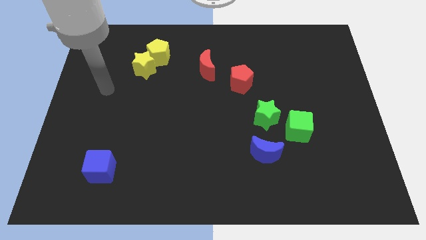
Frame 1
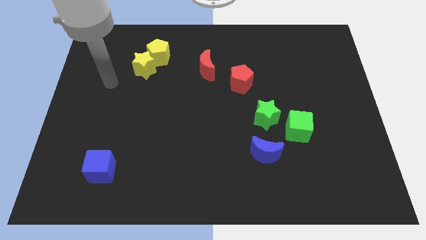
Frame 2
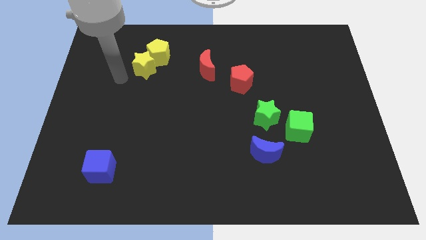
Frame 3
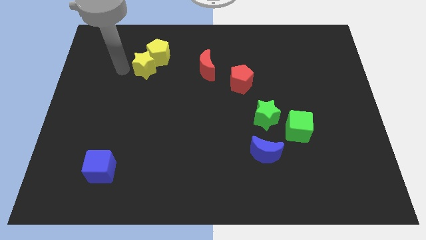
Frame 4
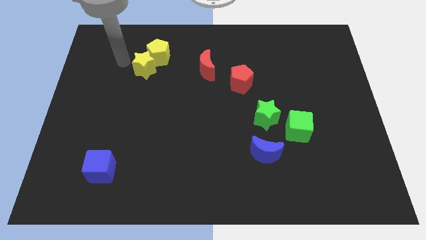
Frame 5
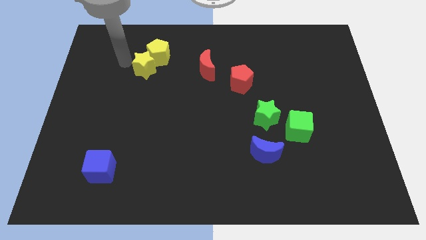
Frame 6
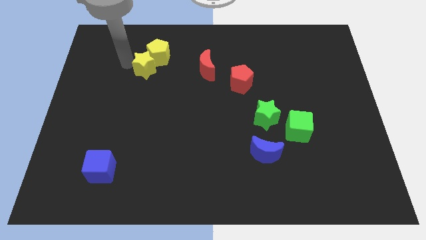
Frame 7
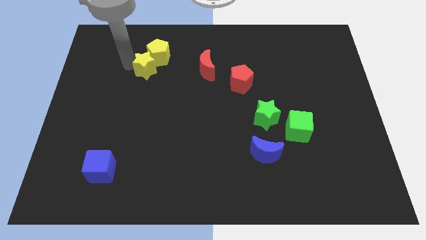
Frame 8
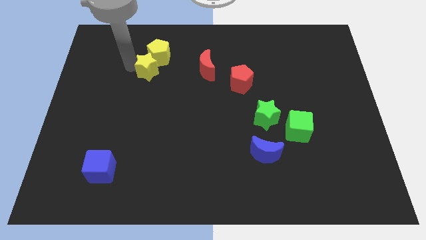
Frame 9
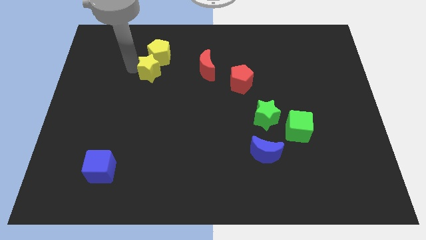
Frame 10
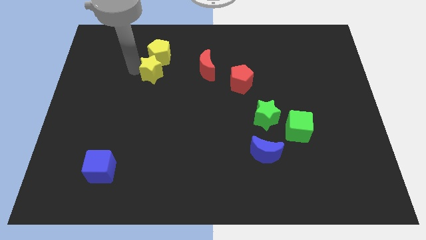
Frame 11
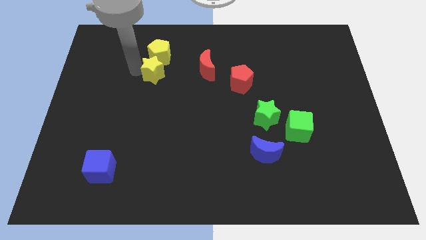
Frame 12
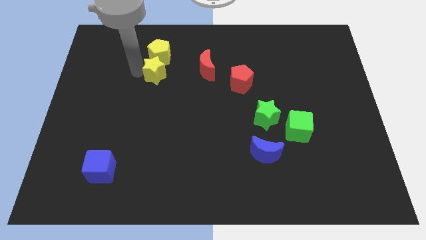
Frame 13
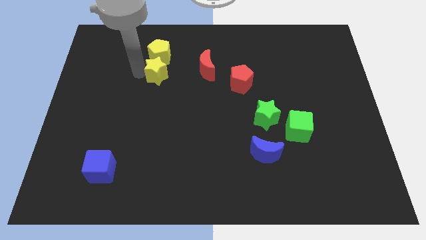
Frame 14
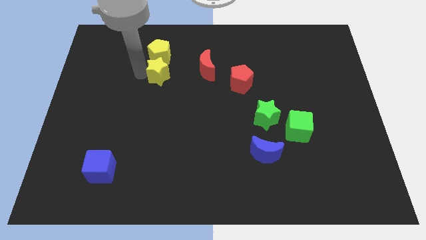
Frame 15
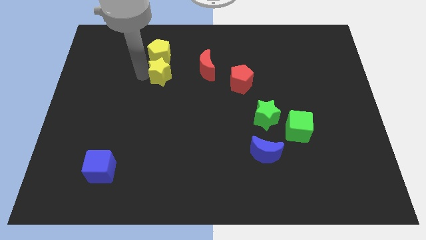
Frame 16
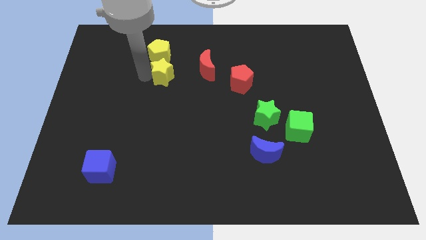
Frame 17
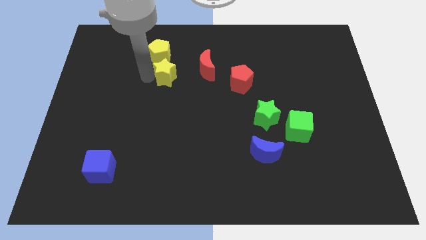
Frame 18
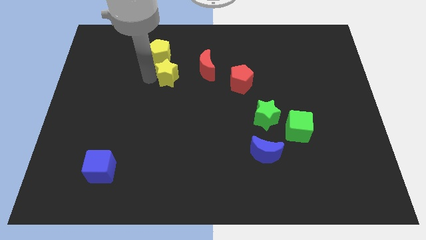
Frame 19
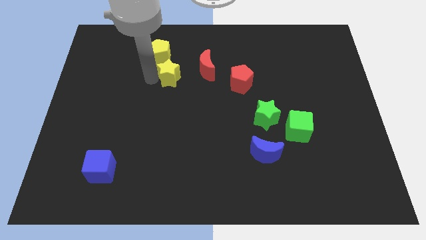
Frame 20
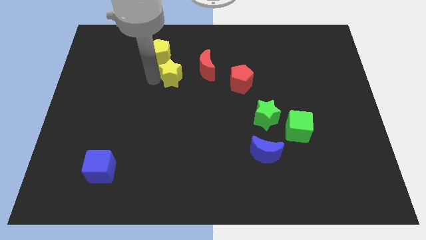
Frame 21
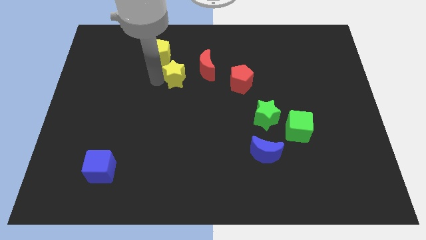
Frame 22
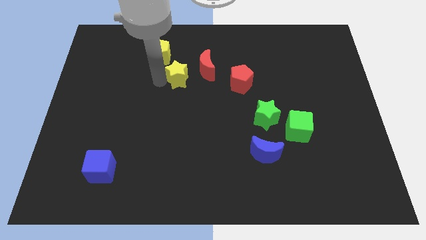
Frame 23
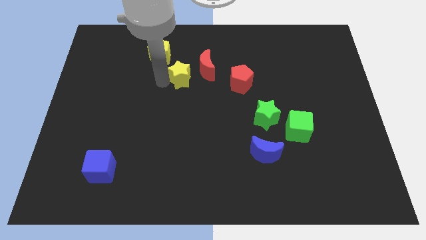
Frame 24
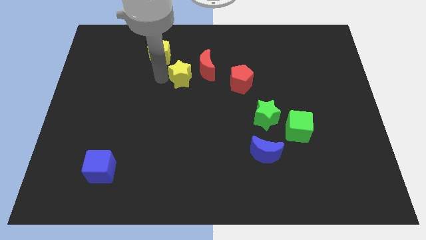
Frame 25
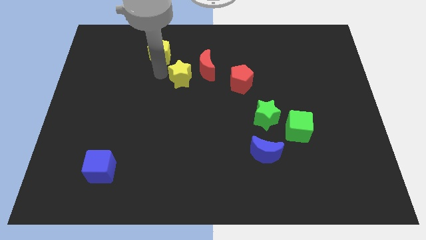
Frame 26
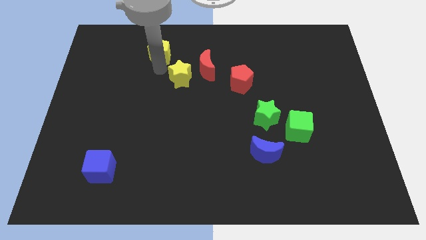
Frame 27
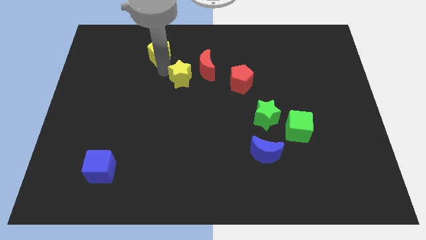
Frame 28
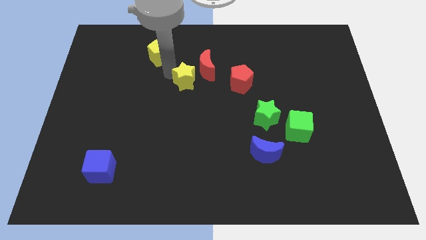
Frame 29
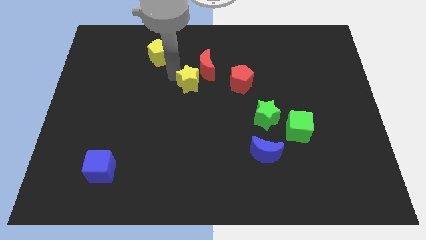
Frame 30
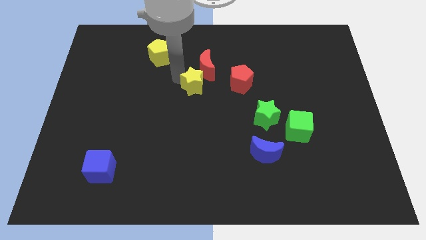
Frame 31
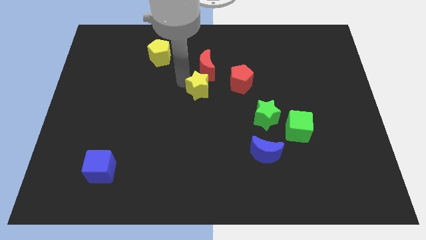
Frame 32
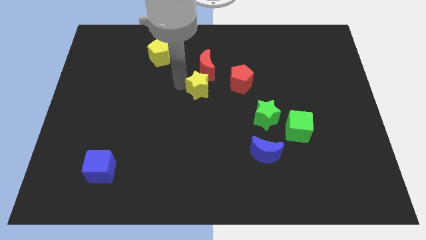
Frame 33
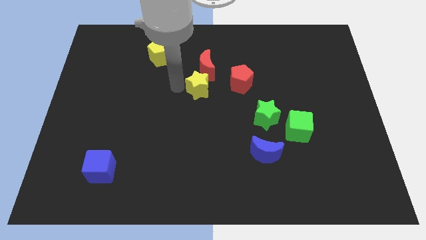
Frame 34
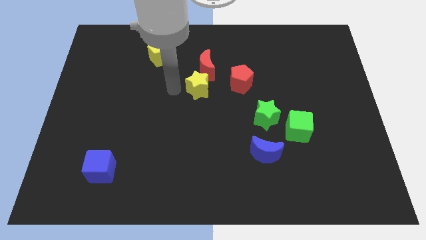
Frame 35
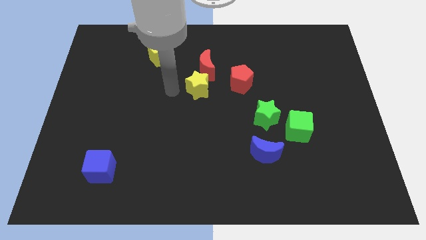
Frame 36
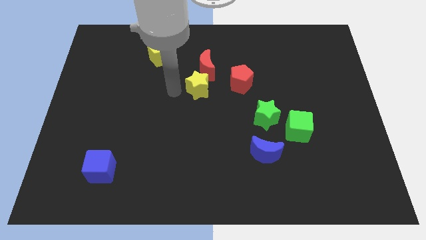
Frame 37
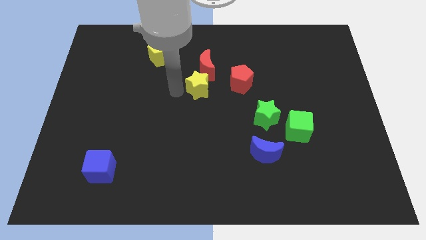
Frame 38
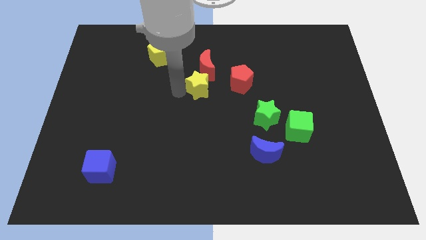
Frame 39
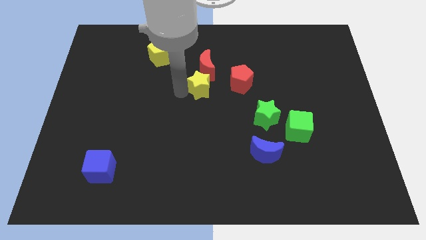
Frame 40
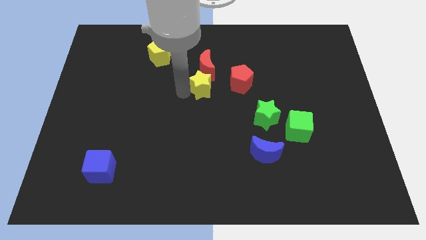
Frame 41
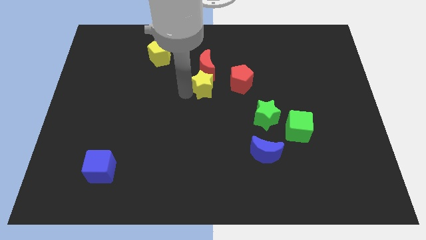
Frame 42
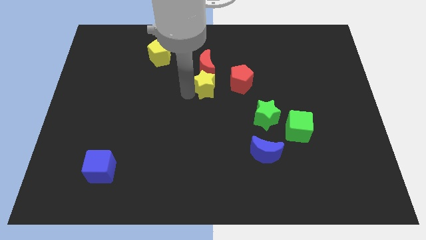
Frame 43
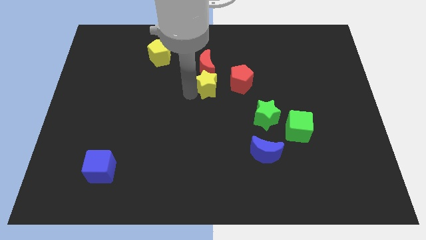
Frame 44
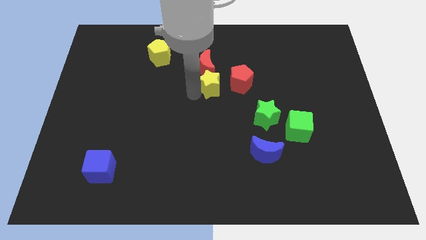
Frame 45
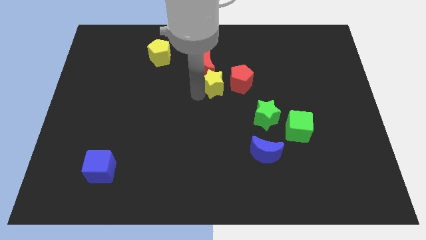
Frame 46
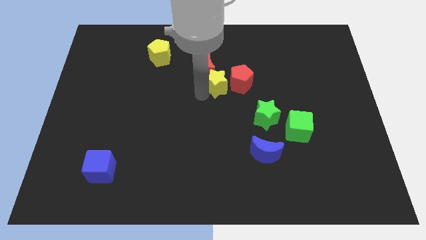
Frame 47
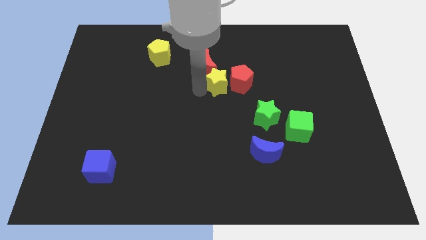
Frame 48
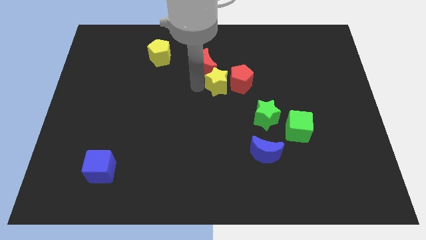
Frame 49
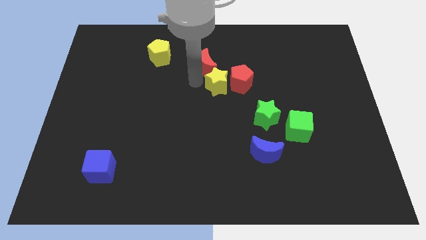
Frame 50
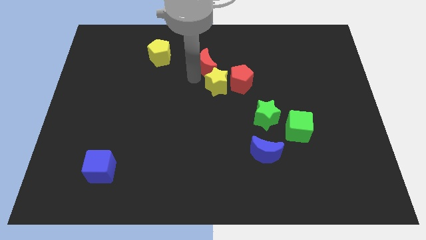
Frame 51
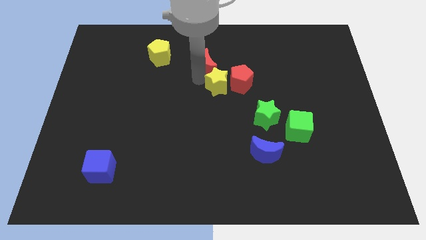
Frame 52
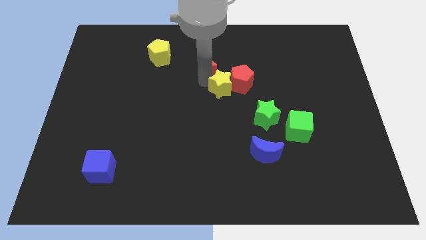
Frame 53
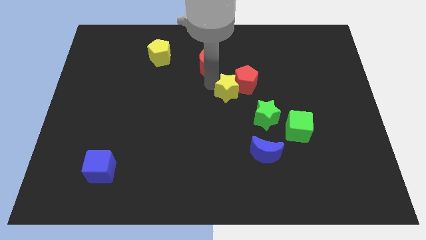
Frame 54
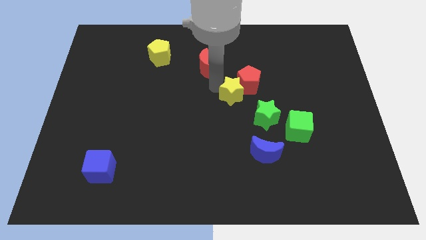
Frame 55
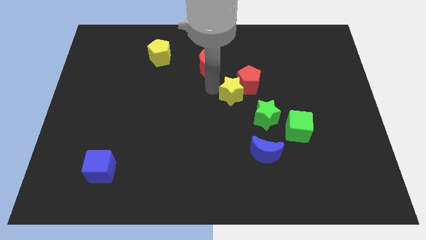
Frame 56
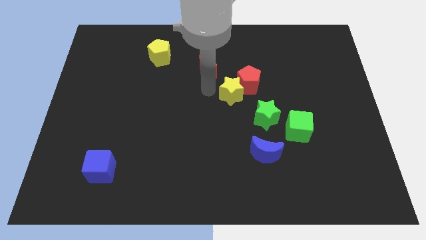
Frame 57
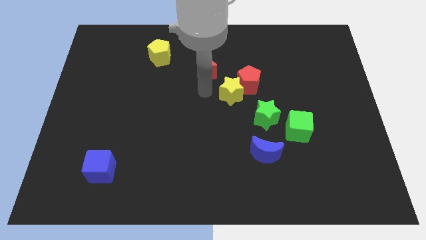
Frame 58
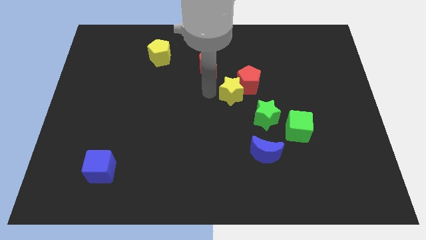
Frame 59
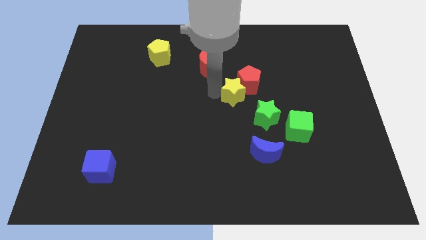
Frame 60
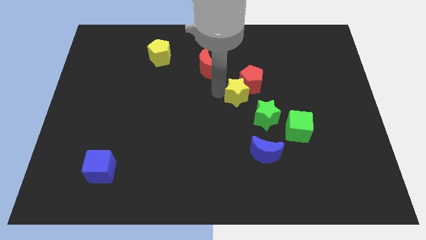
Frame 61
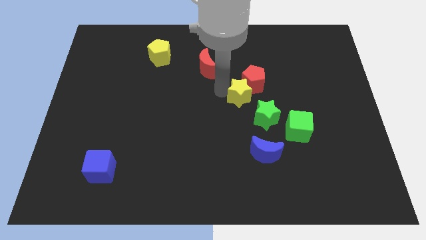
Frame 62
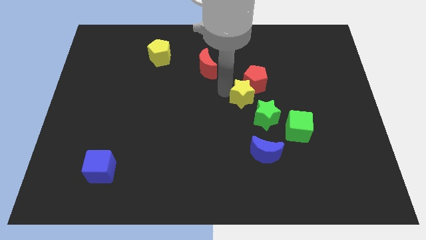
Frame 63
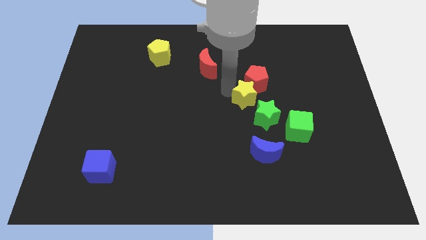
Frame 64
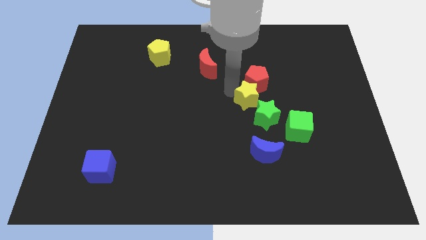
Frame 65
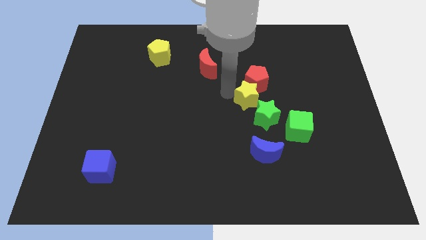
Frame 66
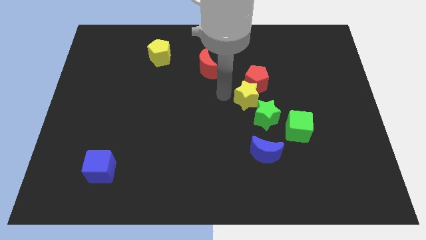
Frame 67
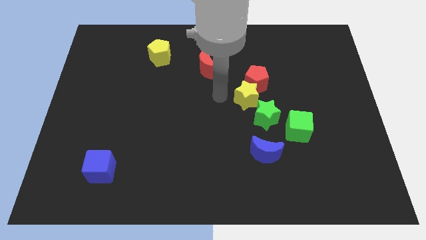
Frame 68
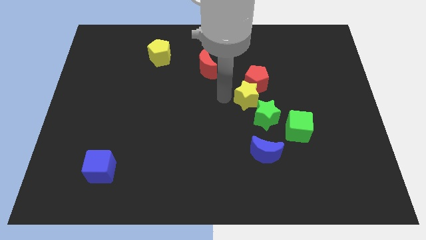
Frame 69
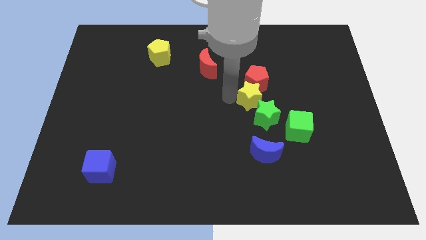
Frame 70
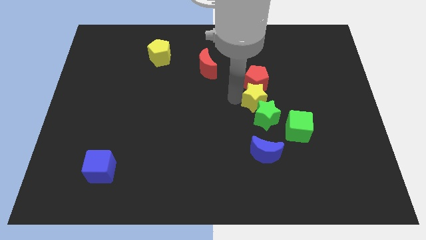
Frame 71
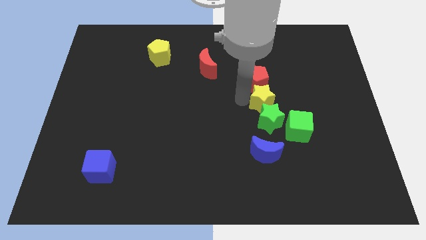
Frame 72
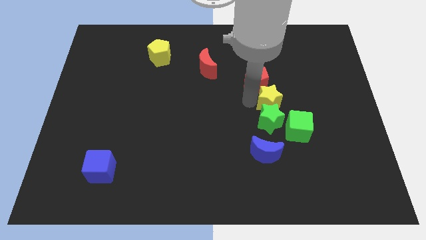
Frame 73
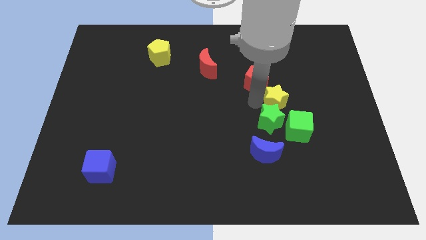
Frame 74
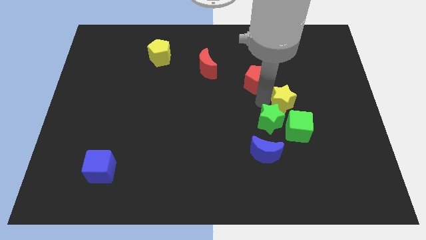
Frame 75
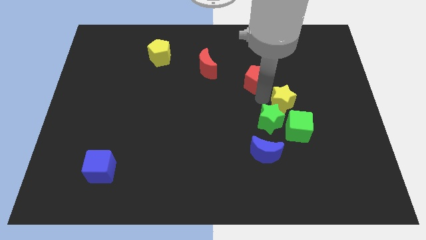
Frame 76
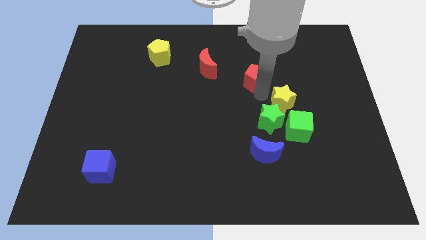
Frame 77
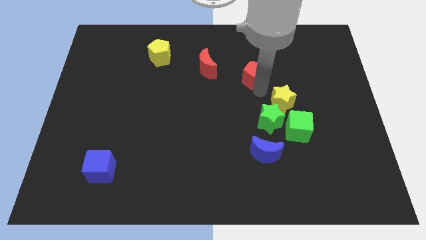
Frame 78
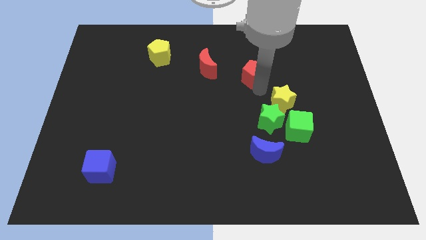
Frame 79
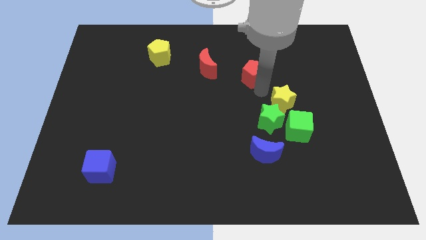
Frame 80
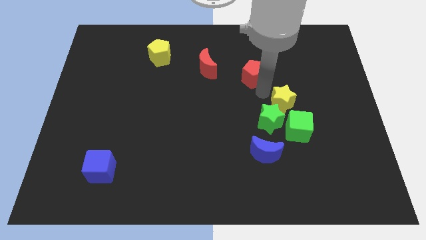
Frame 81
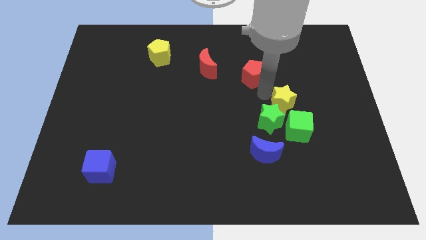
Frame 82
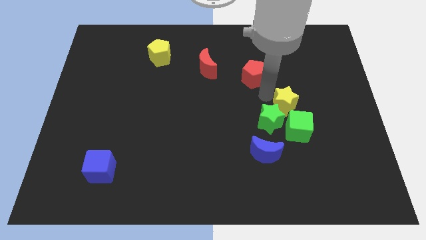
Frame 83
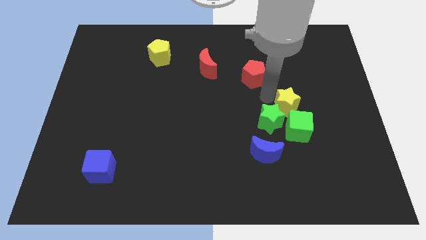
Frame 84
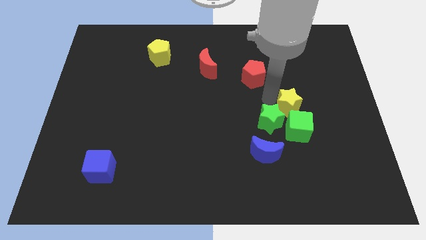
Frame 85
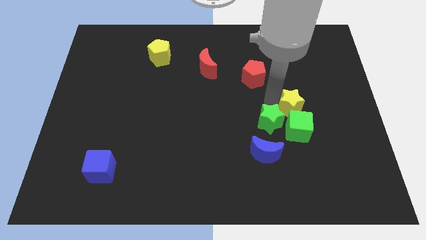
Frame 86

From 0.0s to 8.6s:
put the yellow star to the green cube
